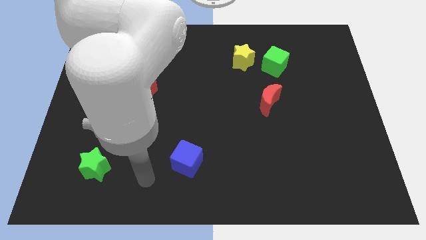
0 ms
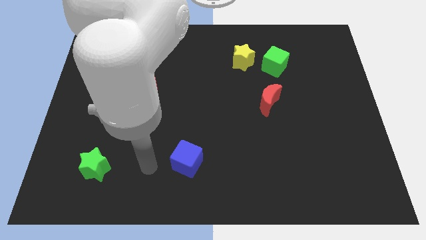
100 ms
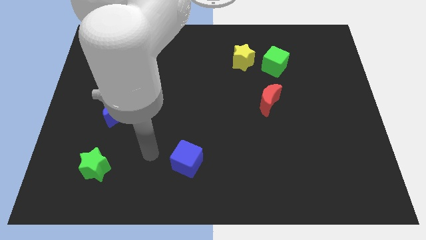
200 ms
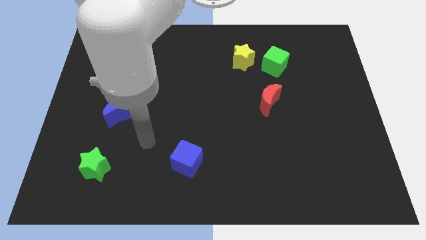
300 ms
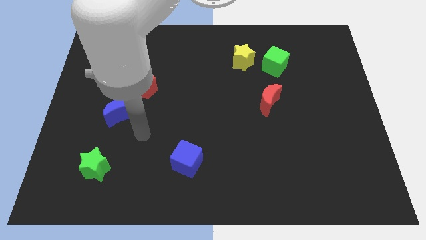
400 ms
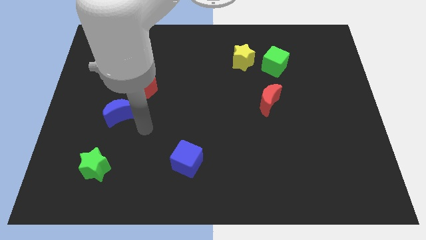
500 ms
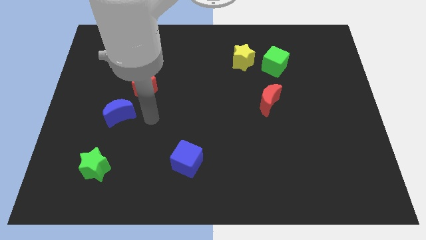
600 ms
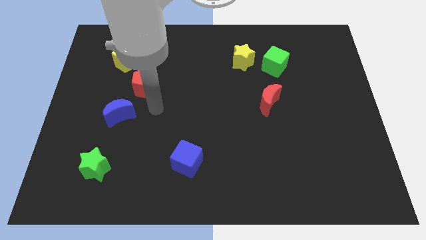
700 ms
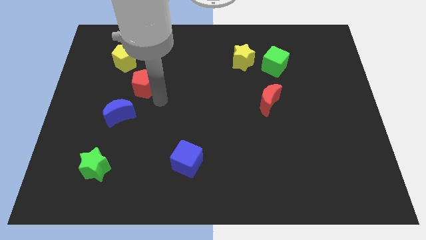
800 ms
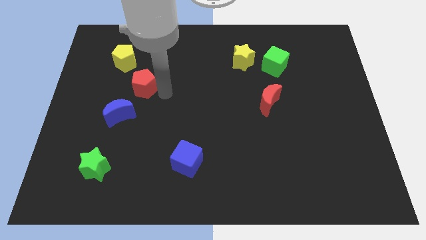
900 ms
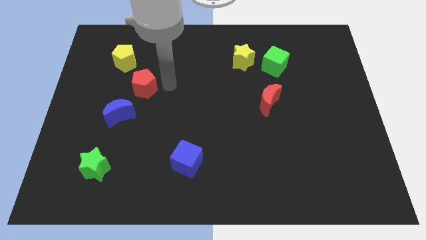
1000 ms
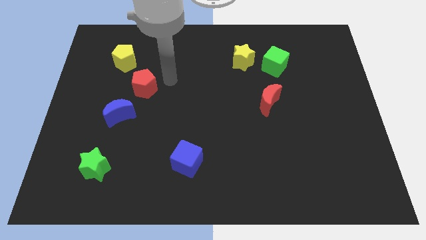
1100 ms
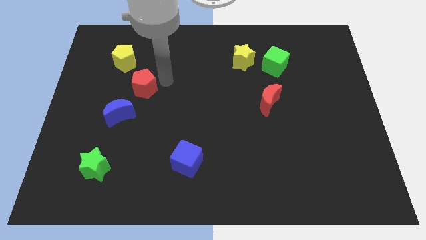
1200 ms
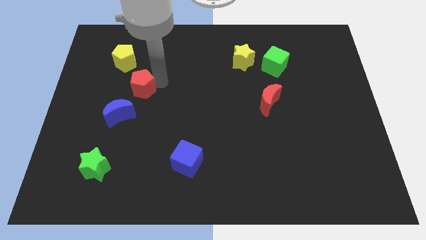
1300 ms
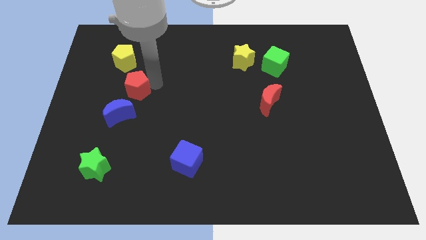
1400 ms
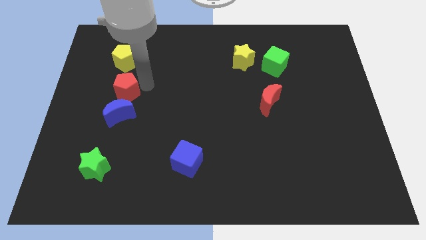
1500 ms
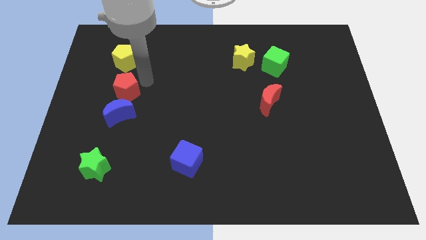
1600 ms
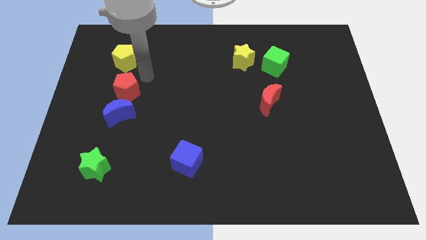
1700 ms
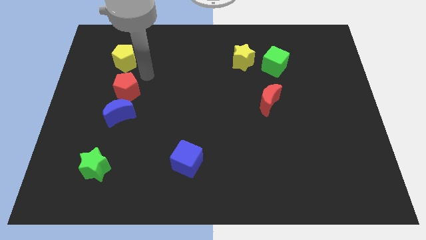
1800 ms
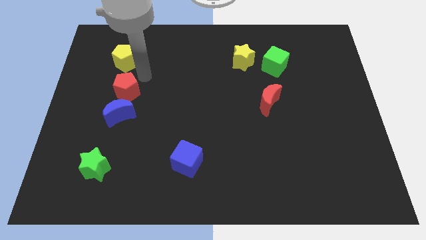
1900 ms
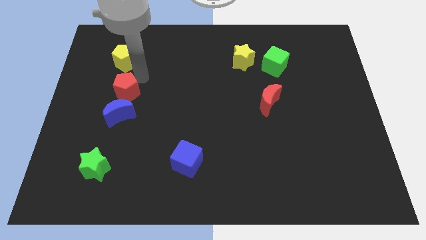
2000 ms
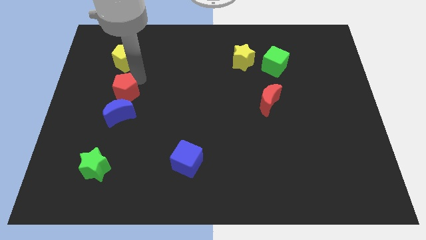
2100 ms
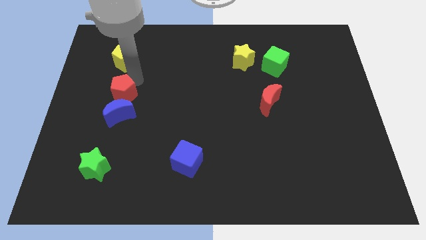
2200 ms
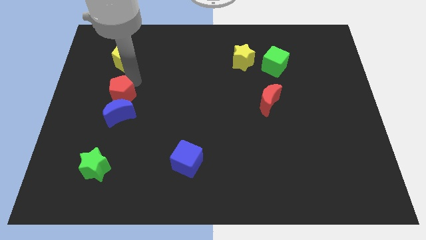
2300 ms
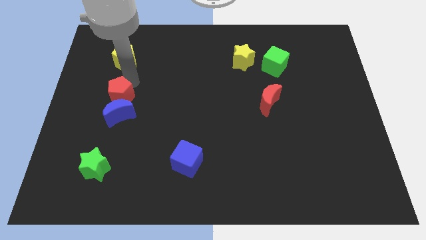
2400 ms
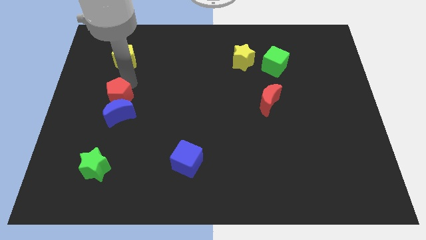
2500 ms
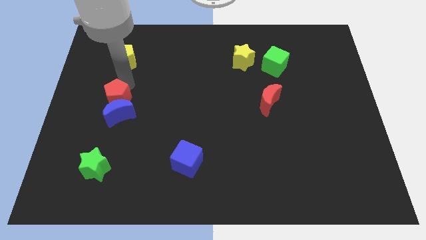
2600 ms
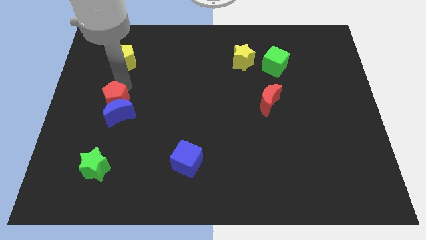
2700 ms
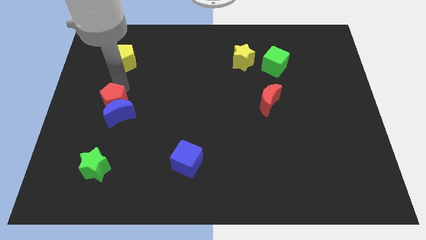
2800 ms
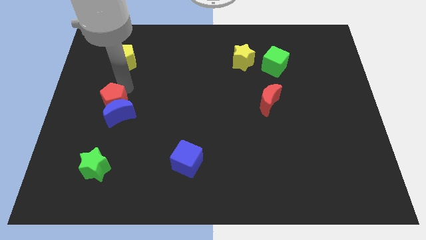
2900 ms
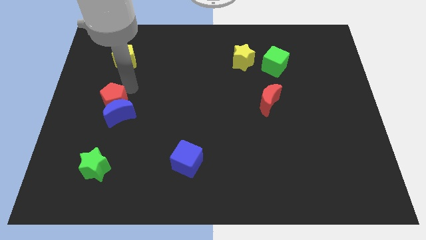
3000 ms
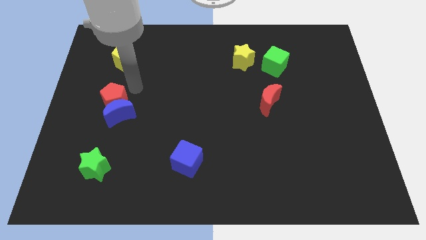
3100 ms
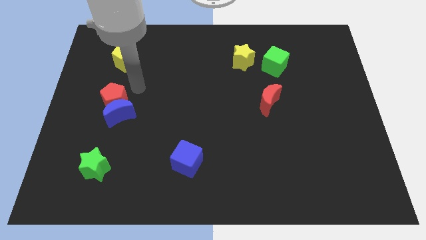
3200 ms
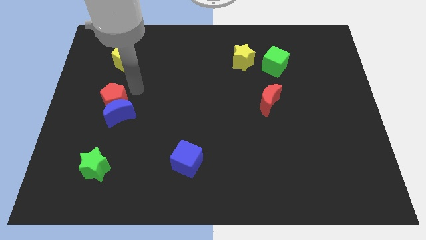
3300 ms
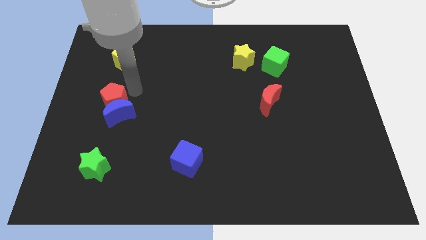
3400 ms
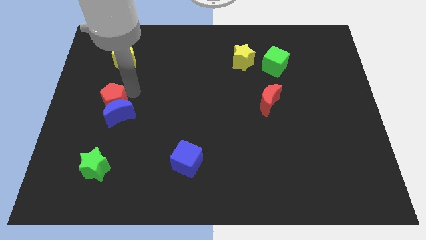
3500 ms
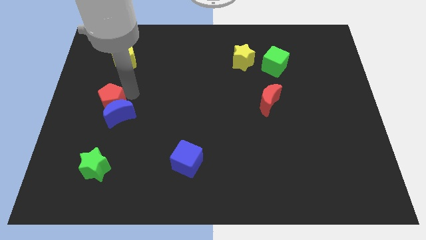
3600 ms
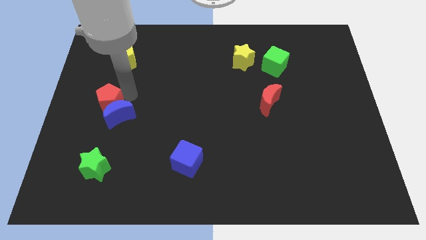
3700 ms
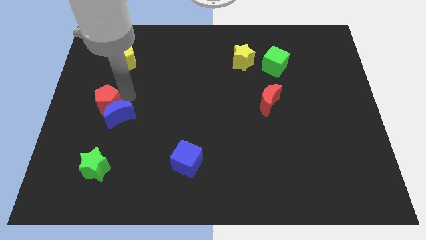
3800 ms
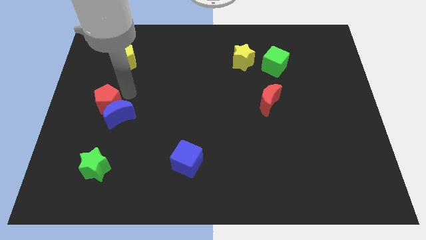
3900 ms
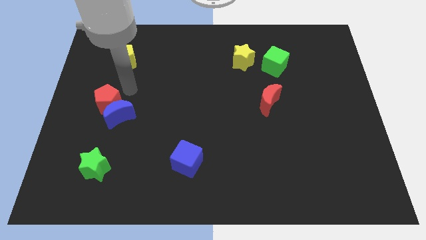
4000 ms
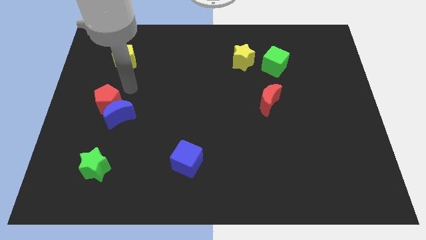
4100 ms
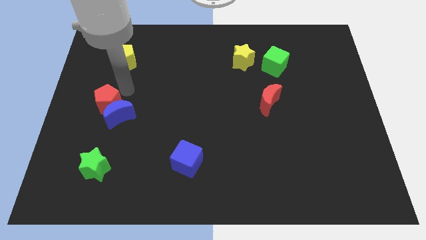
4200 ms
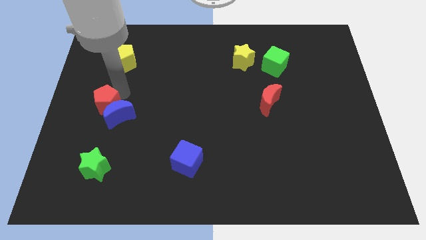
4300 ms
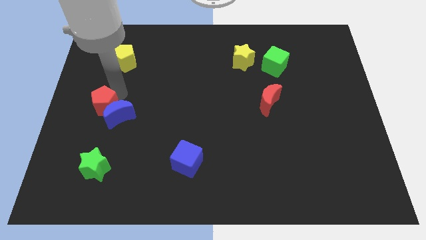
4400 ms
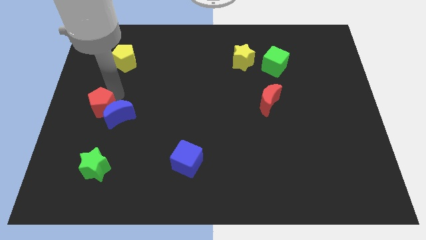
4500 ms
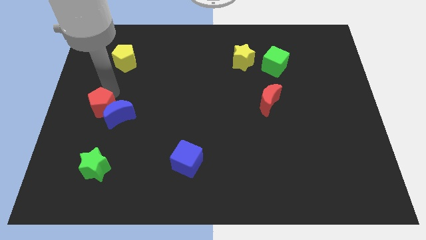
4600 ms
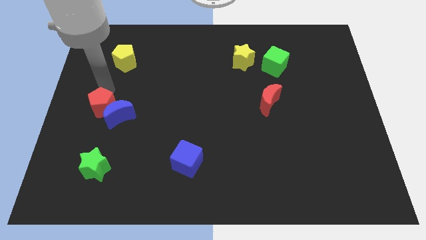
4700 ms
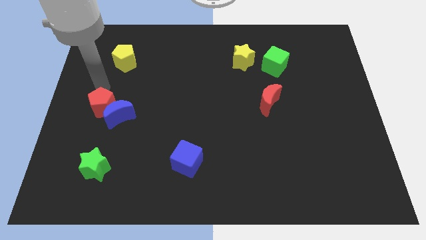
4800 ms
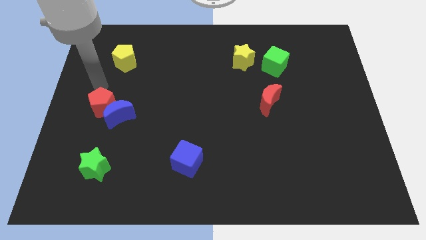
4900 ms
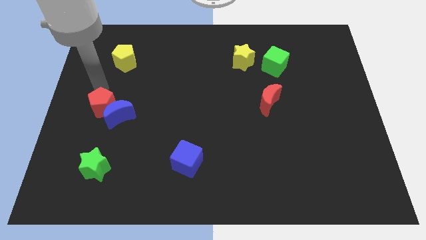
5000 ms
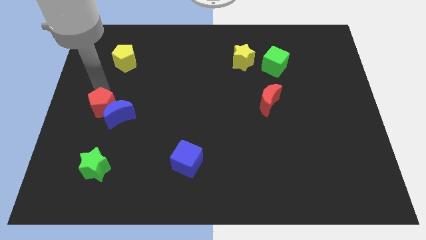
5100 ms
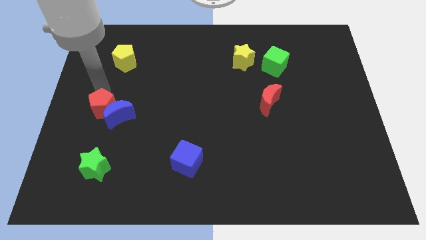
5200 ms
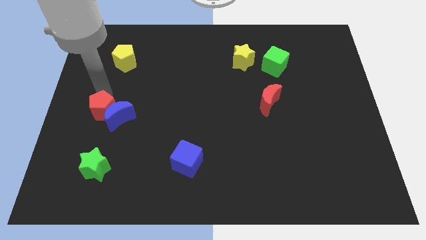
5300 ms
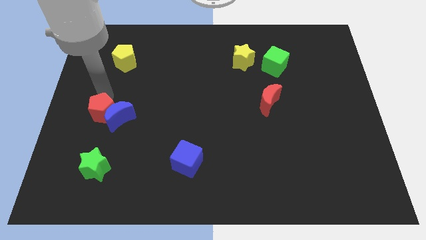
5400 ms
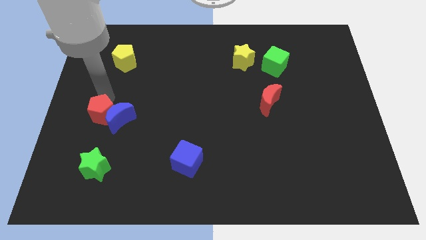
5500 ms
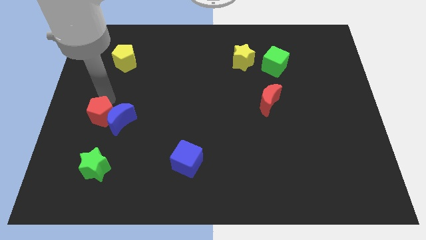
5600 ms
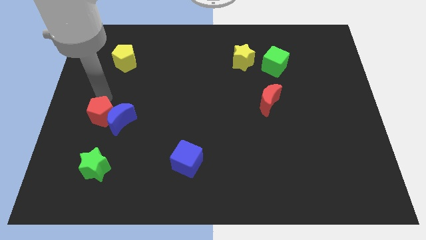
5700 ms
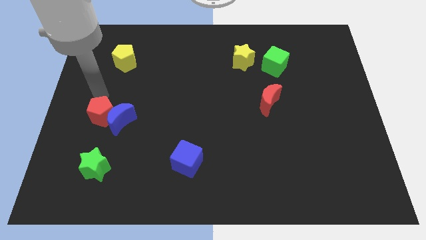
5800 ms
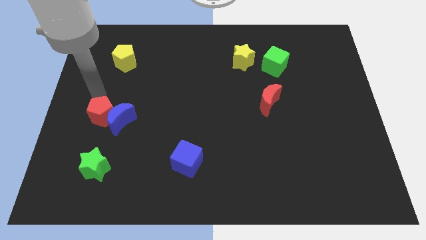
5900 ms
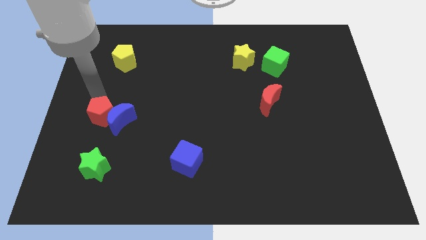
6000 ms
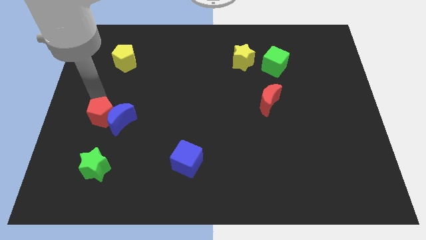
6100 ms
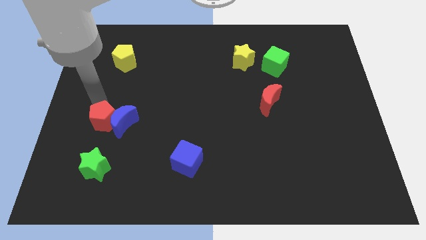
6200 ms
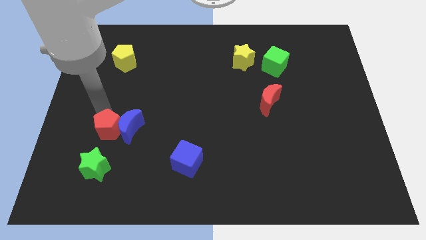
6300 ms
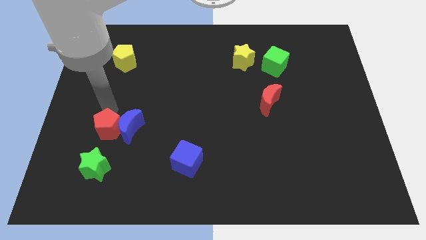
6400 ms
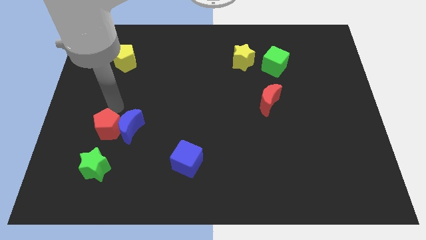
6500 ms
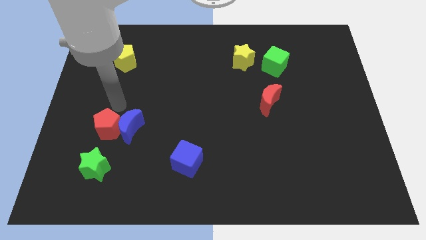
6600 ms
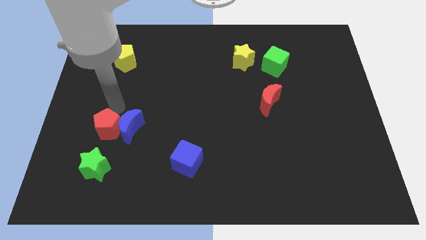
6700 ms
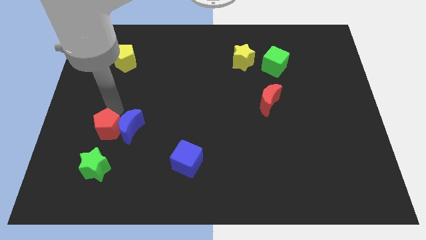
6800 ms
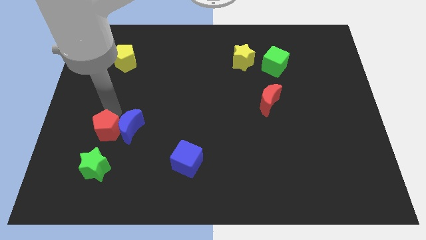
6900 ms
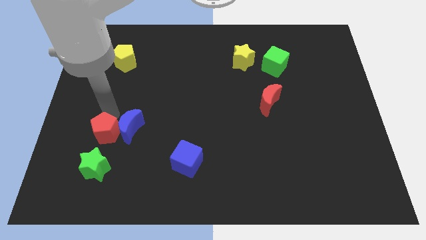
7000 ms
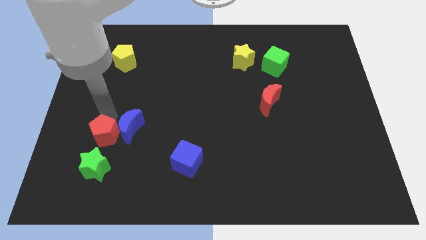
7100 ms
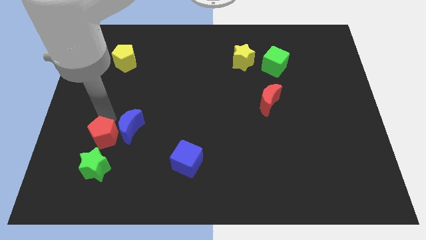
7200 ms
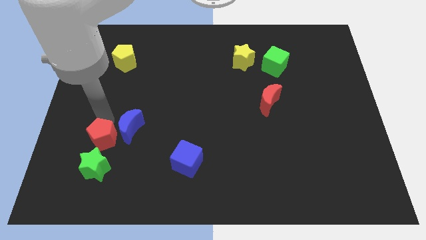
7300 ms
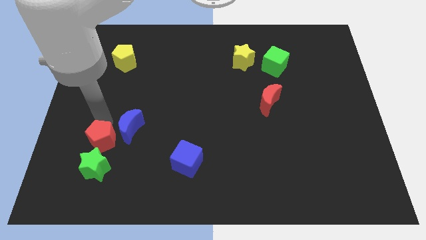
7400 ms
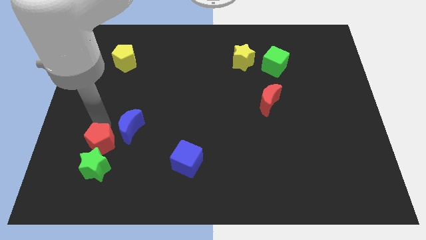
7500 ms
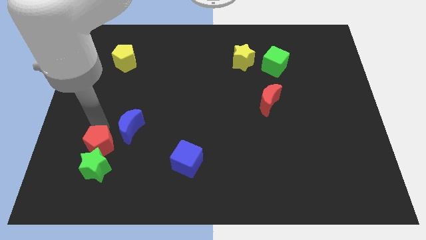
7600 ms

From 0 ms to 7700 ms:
push the red pentagon next to the green star

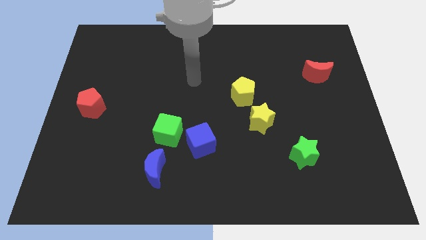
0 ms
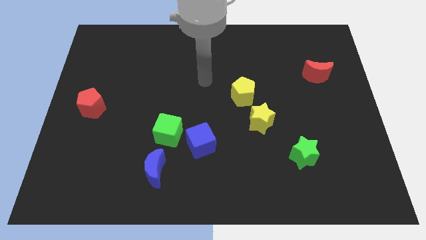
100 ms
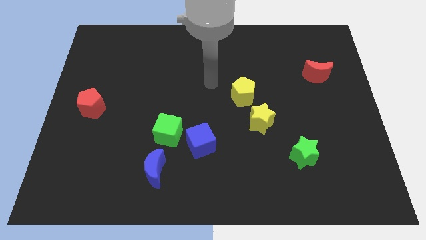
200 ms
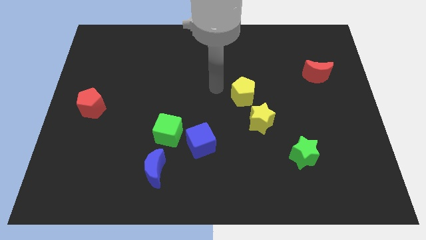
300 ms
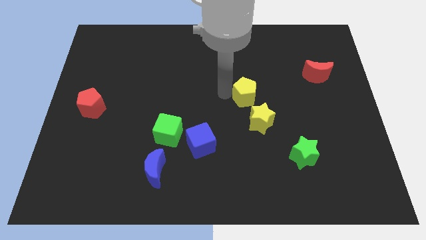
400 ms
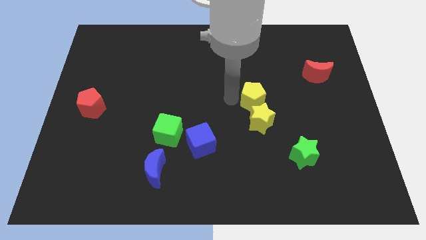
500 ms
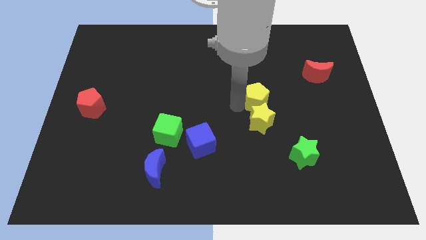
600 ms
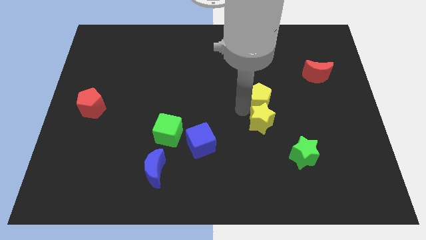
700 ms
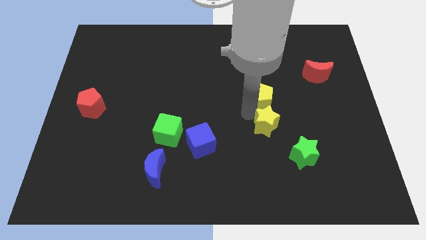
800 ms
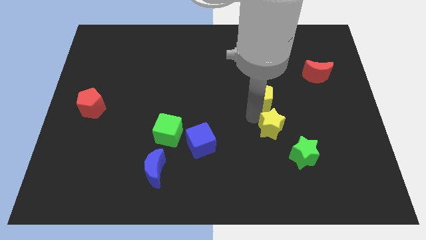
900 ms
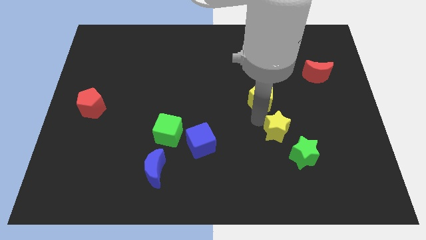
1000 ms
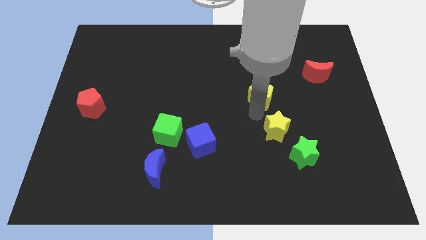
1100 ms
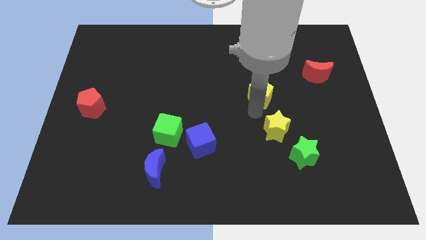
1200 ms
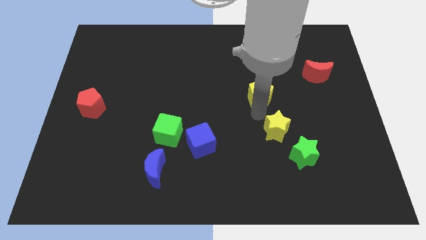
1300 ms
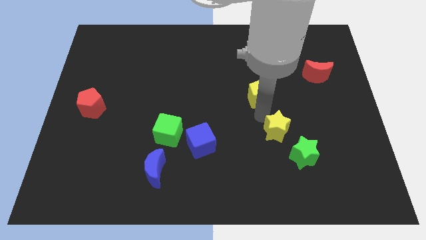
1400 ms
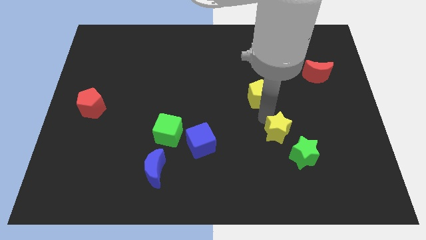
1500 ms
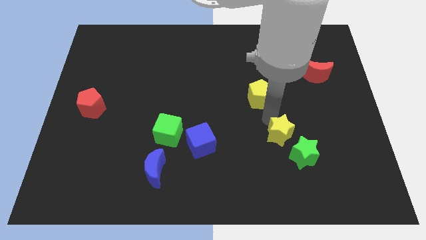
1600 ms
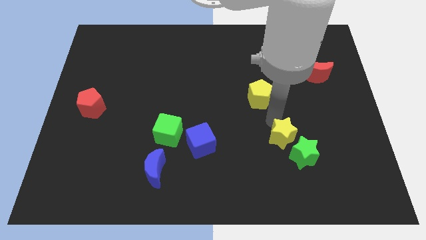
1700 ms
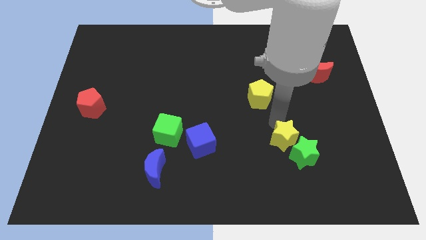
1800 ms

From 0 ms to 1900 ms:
move the yellow star towards the green star
